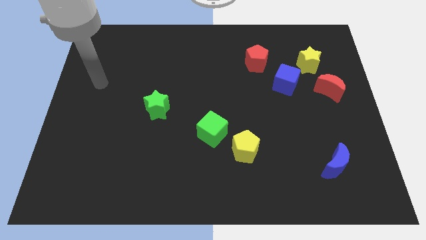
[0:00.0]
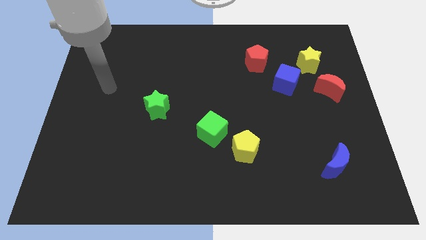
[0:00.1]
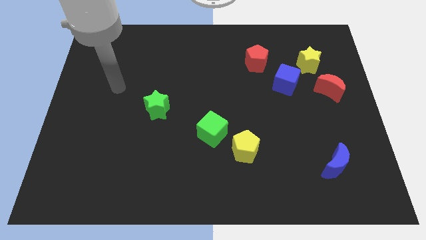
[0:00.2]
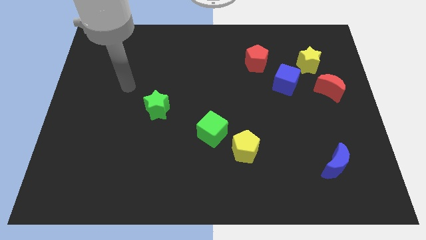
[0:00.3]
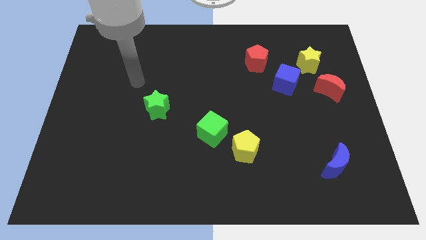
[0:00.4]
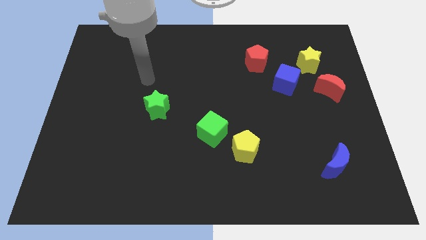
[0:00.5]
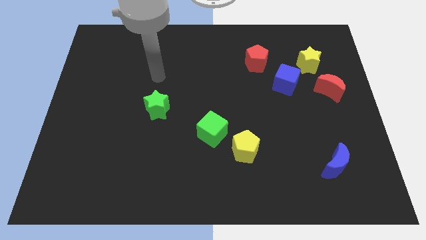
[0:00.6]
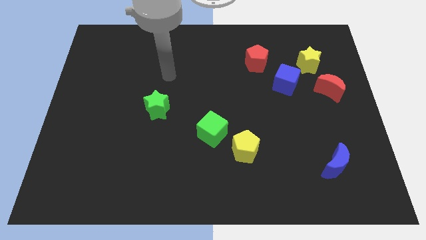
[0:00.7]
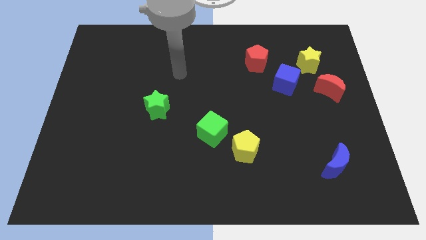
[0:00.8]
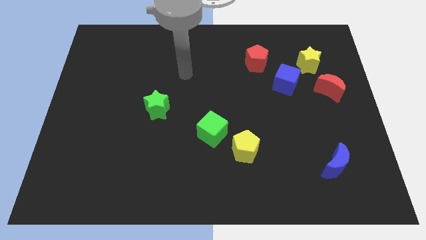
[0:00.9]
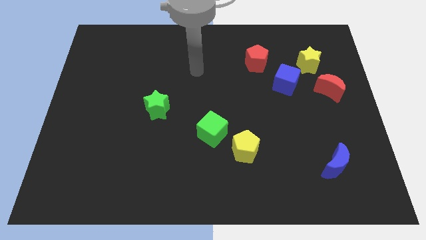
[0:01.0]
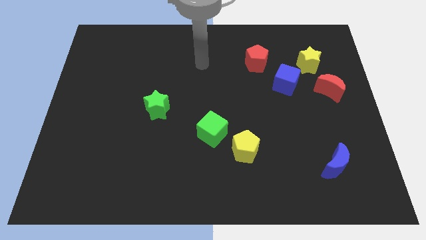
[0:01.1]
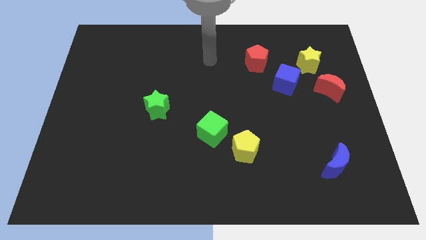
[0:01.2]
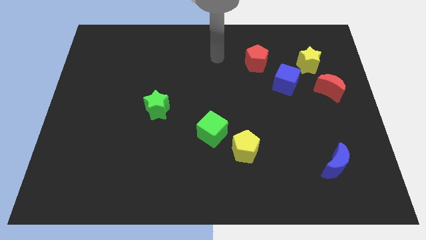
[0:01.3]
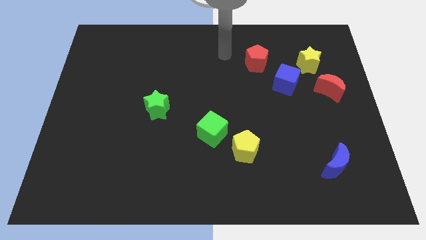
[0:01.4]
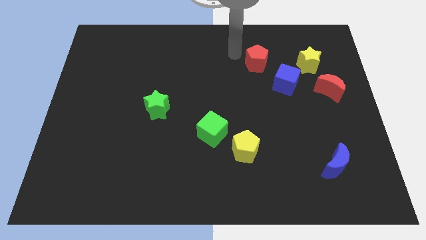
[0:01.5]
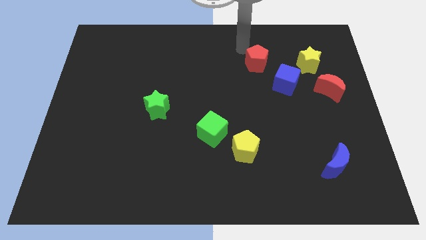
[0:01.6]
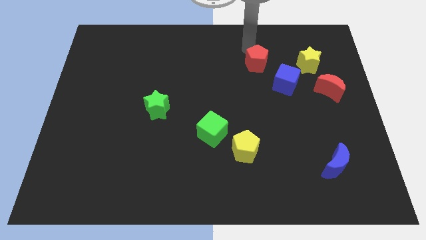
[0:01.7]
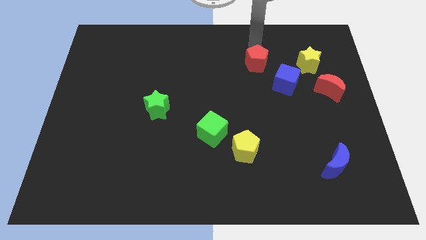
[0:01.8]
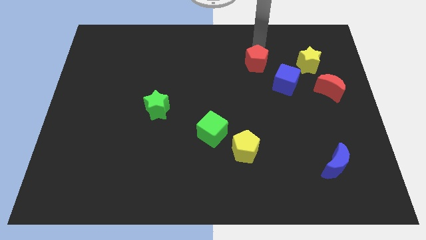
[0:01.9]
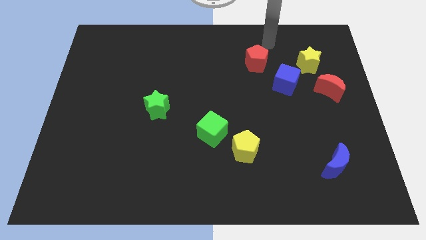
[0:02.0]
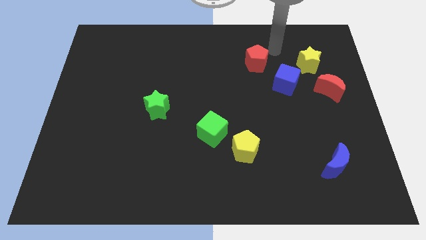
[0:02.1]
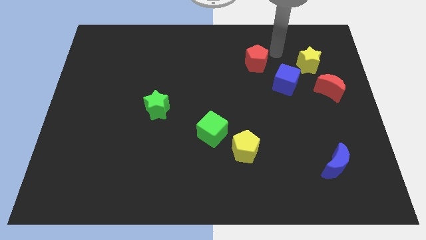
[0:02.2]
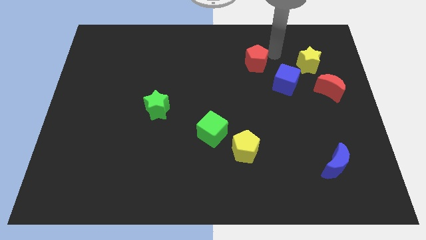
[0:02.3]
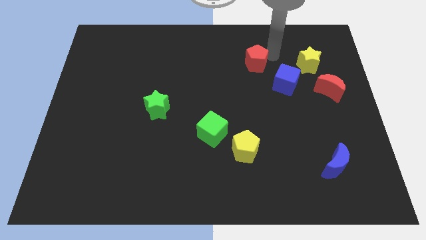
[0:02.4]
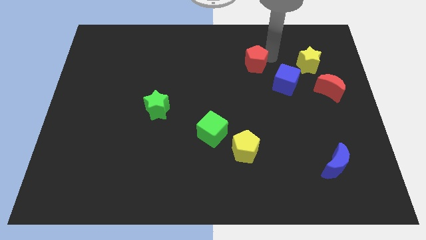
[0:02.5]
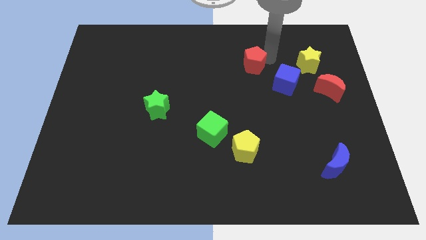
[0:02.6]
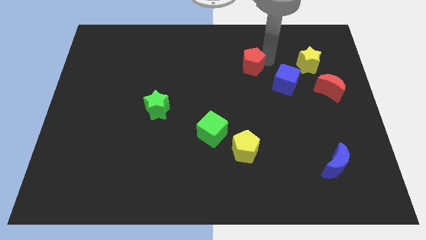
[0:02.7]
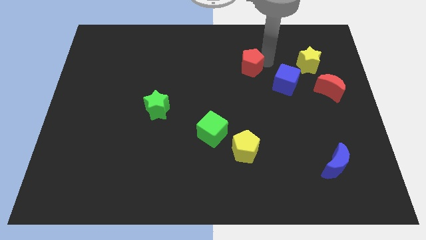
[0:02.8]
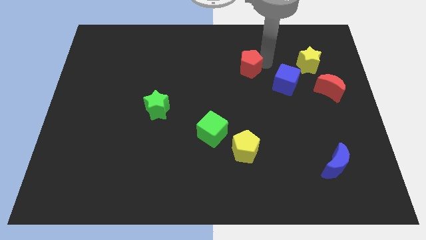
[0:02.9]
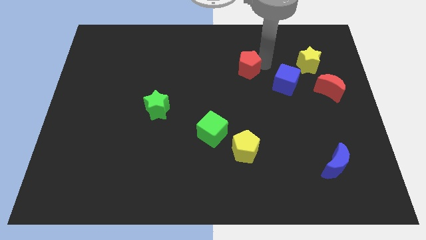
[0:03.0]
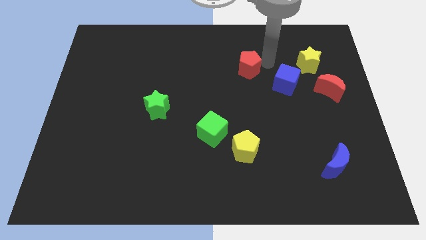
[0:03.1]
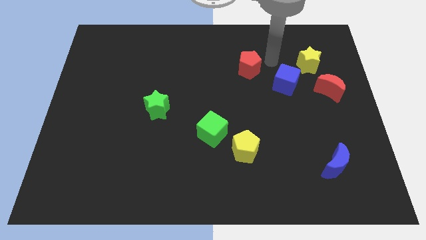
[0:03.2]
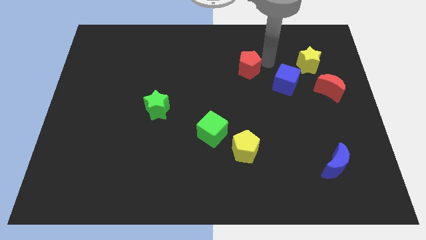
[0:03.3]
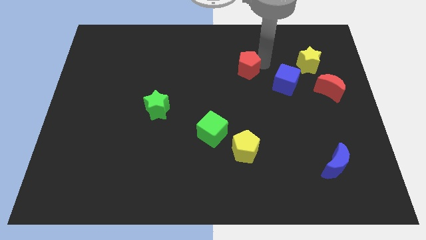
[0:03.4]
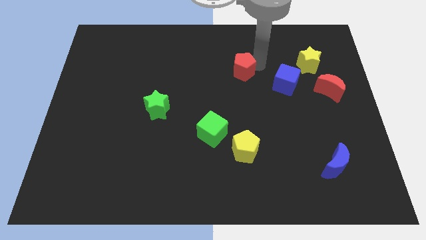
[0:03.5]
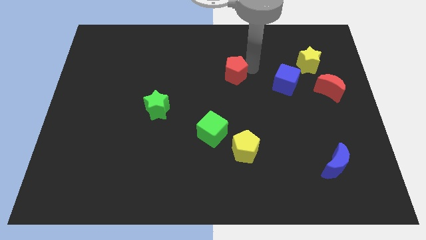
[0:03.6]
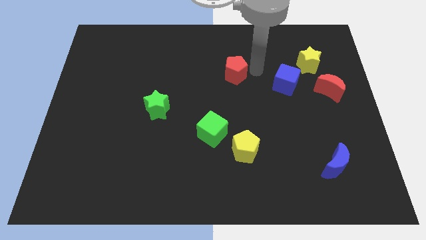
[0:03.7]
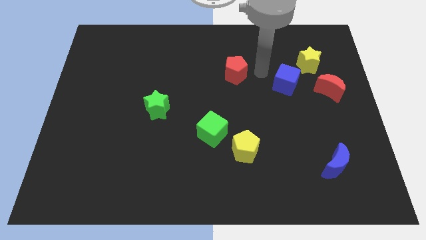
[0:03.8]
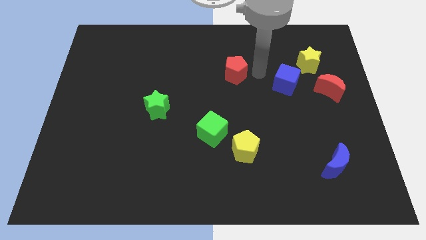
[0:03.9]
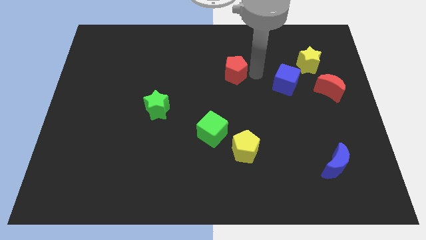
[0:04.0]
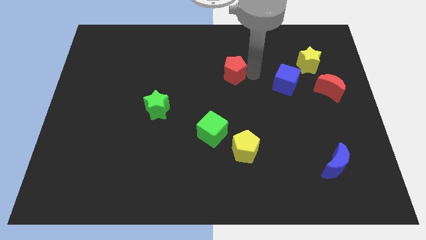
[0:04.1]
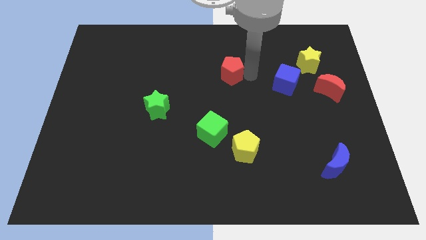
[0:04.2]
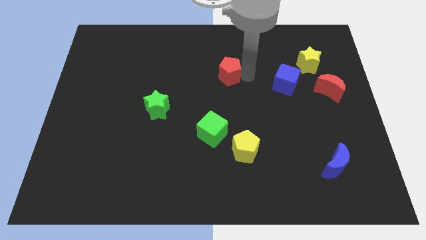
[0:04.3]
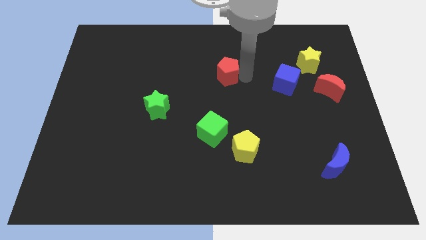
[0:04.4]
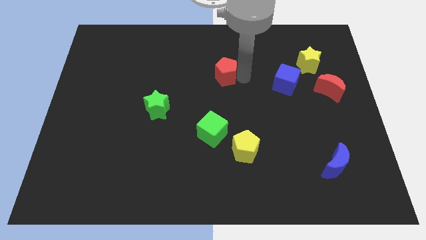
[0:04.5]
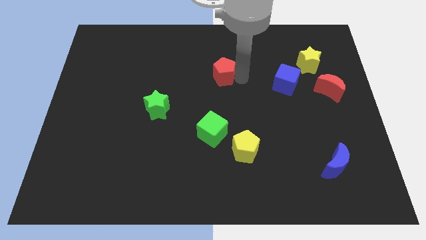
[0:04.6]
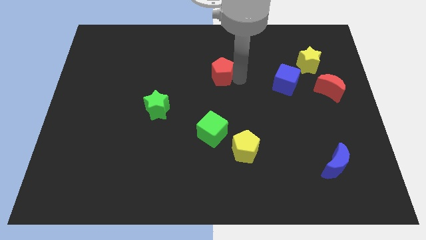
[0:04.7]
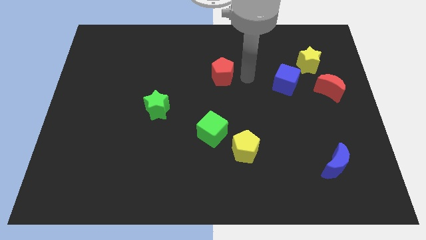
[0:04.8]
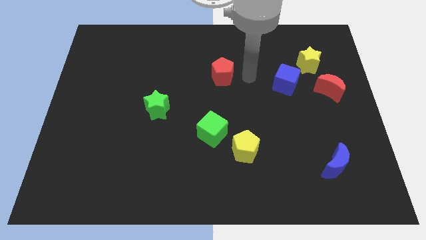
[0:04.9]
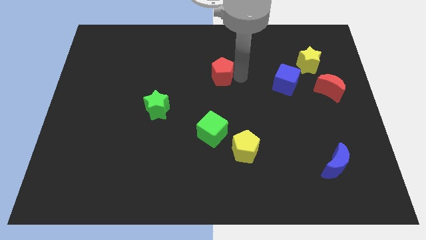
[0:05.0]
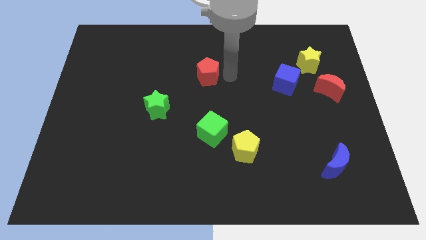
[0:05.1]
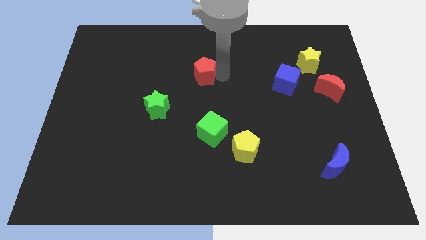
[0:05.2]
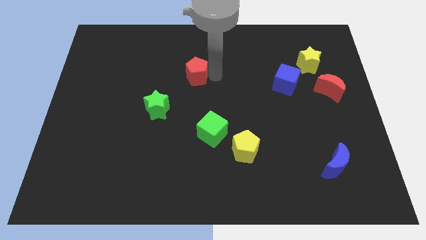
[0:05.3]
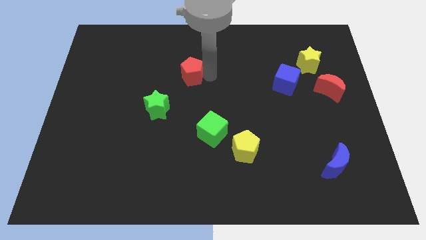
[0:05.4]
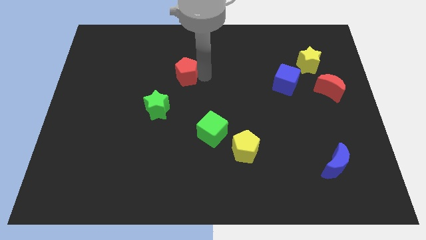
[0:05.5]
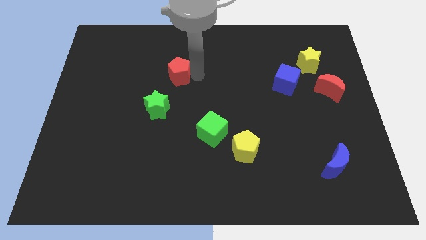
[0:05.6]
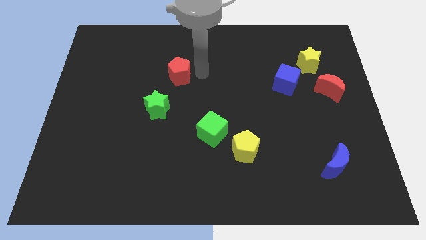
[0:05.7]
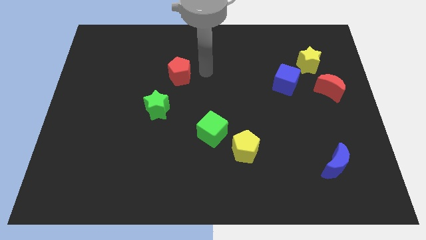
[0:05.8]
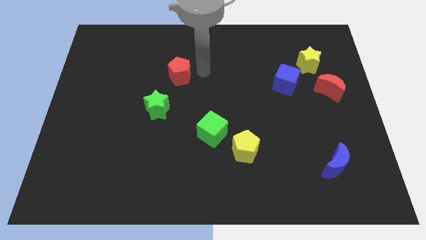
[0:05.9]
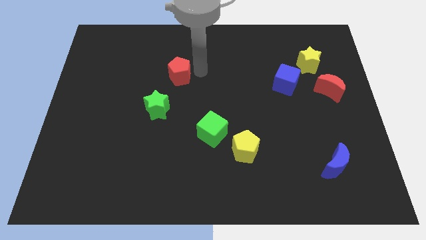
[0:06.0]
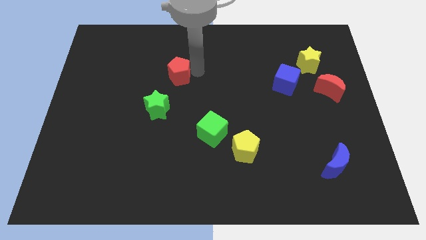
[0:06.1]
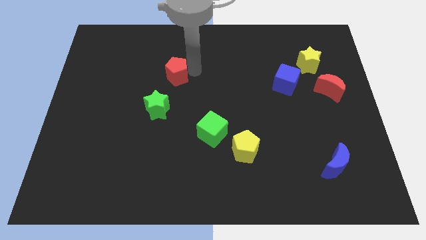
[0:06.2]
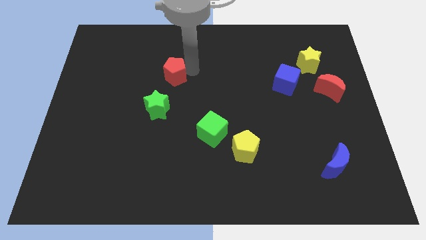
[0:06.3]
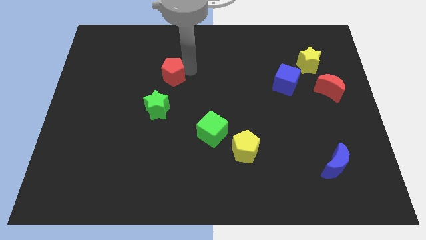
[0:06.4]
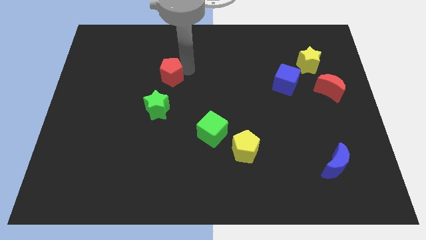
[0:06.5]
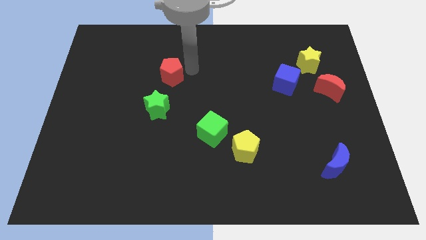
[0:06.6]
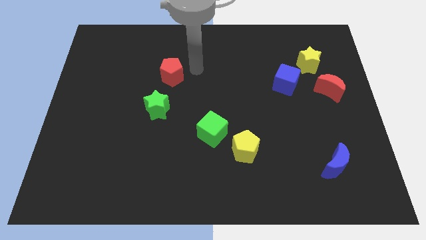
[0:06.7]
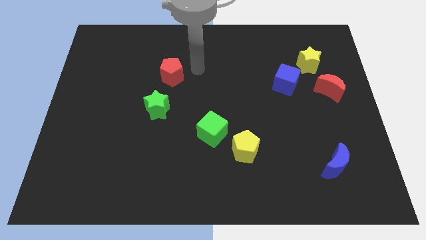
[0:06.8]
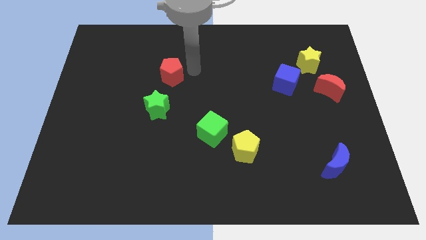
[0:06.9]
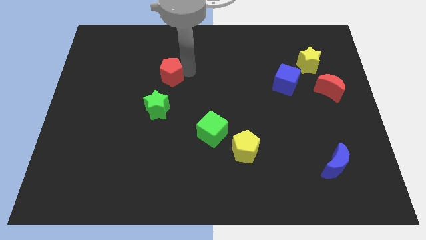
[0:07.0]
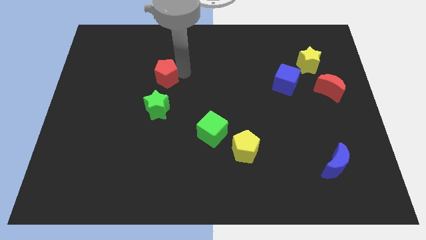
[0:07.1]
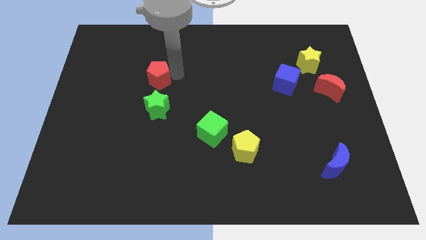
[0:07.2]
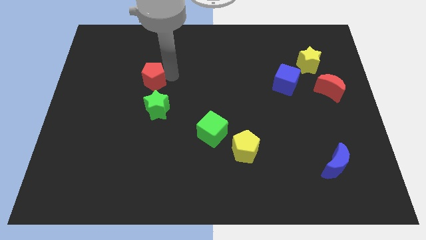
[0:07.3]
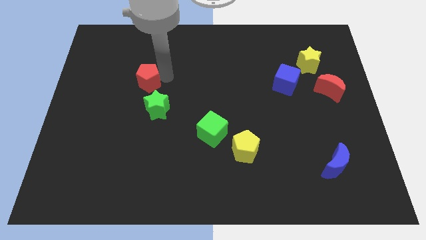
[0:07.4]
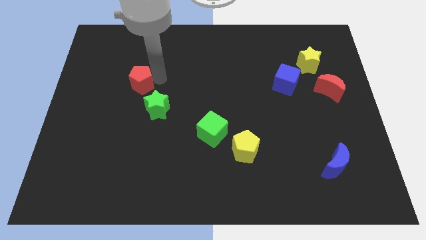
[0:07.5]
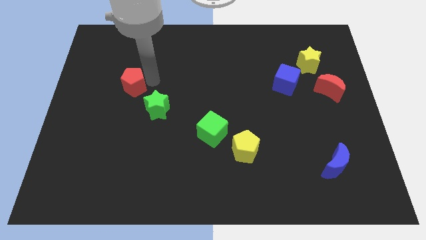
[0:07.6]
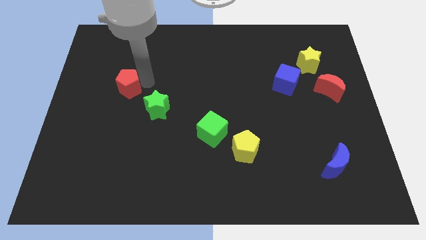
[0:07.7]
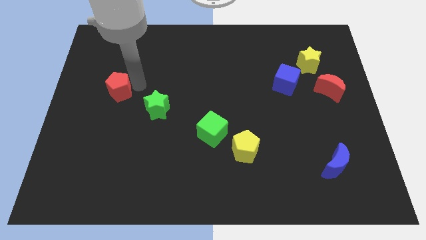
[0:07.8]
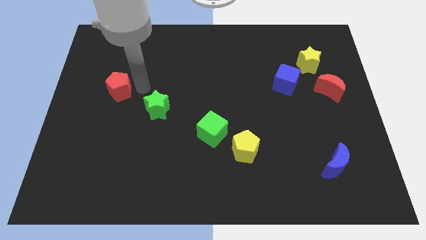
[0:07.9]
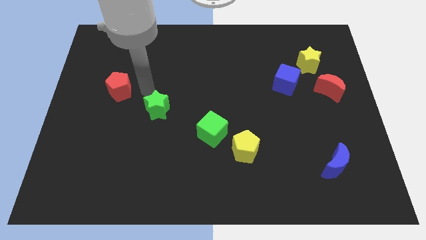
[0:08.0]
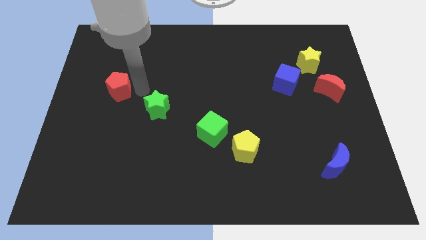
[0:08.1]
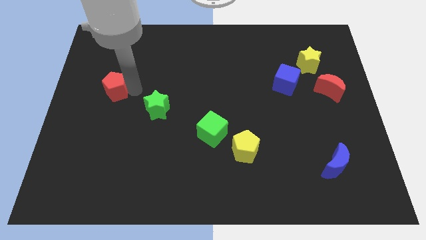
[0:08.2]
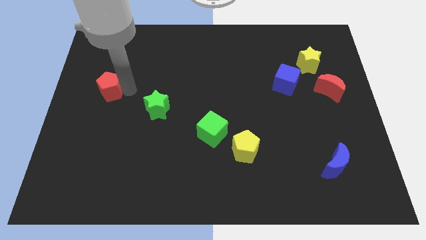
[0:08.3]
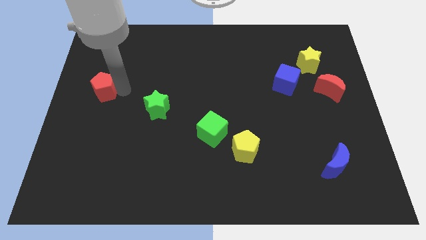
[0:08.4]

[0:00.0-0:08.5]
slide the red pentagon to the center left
